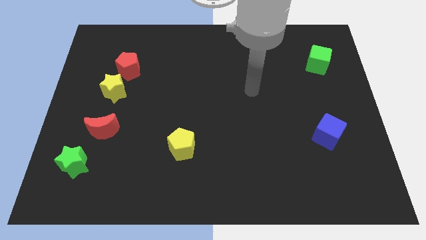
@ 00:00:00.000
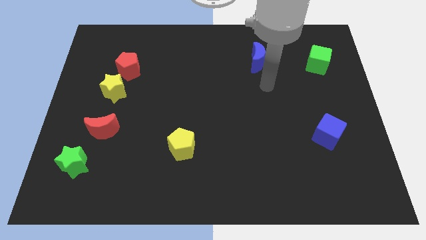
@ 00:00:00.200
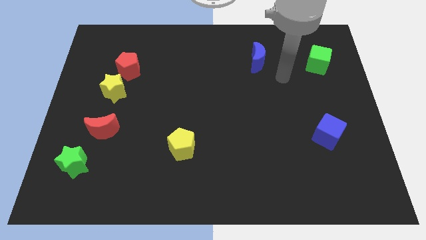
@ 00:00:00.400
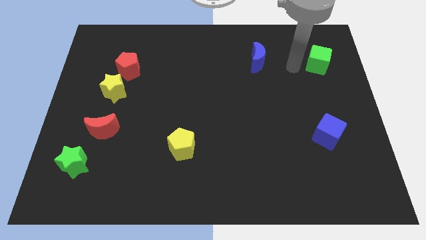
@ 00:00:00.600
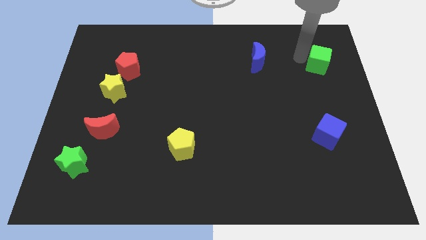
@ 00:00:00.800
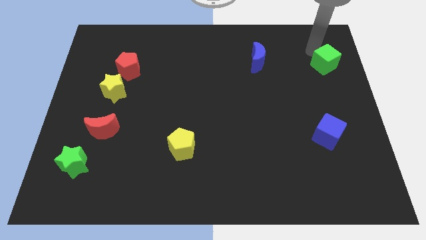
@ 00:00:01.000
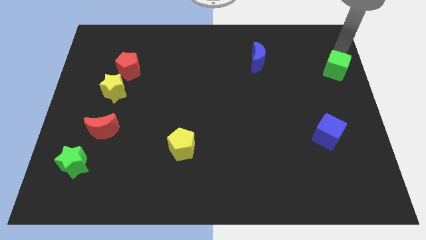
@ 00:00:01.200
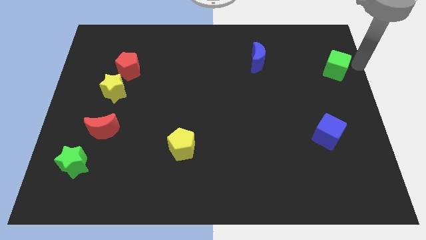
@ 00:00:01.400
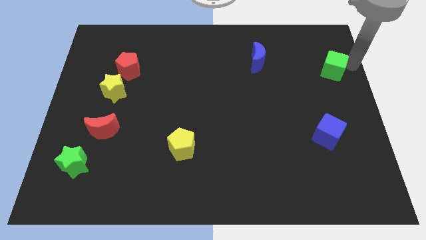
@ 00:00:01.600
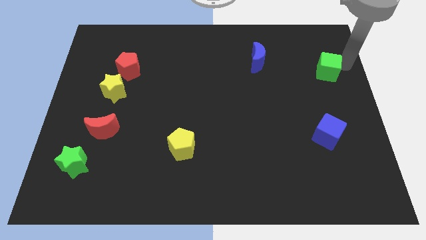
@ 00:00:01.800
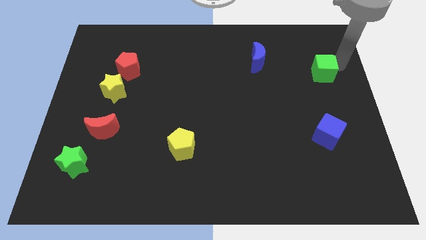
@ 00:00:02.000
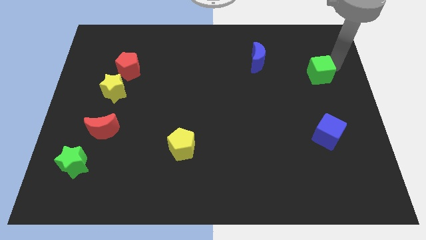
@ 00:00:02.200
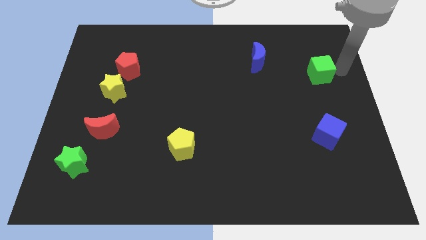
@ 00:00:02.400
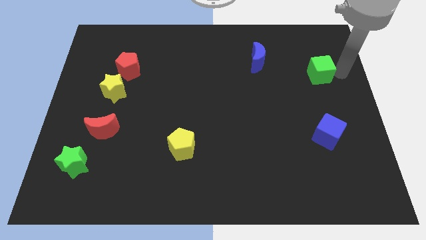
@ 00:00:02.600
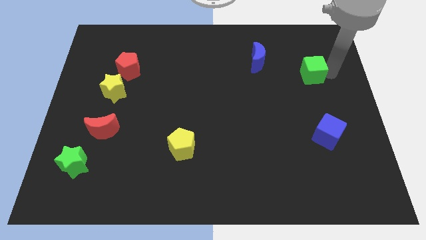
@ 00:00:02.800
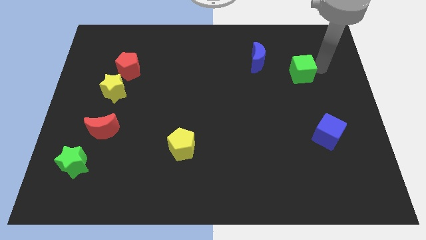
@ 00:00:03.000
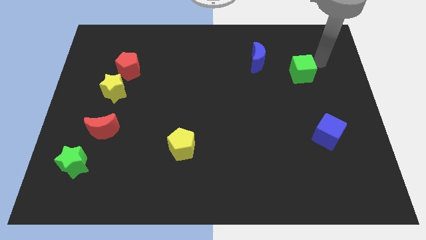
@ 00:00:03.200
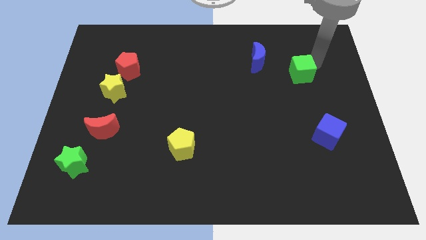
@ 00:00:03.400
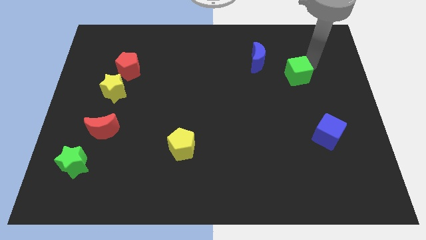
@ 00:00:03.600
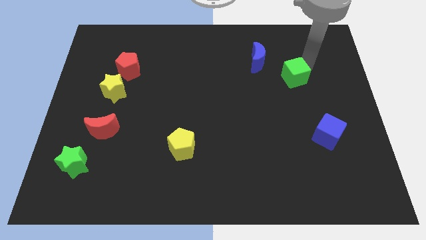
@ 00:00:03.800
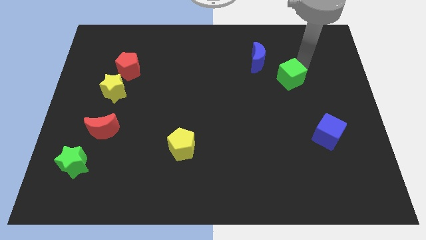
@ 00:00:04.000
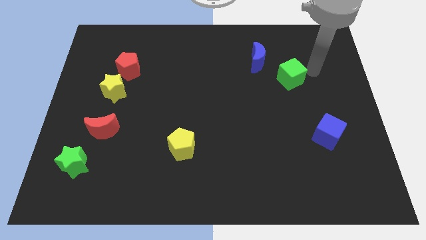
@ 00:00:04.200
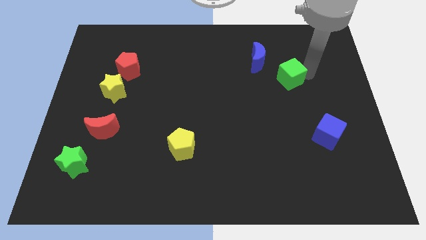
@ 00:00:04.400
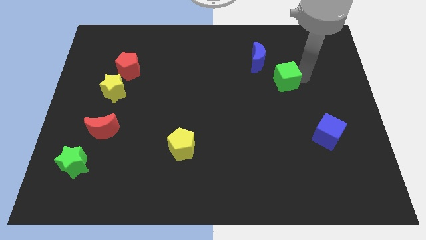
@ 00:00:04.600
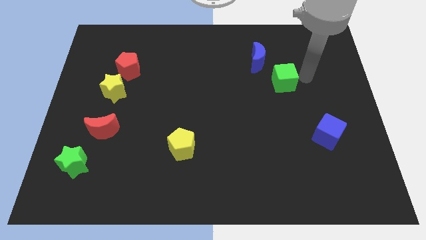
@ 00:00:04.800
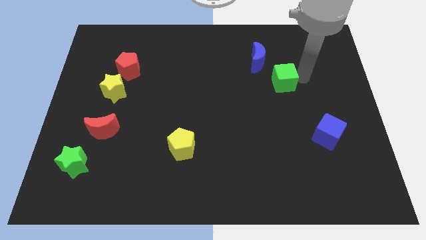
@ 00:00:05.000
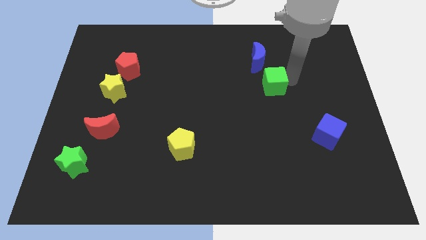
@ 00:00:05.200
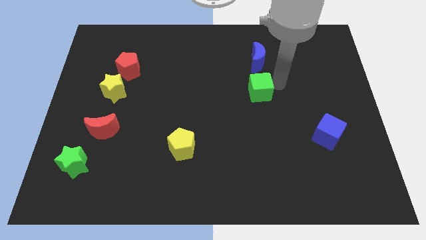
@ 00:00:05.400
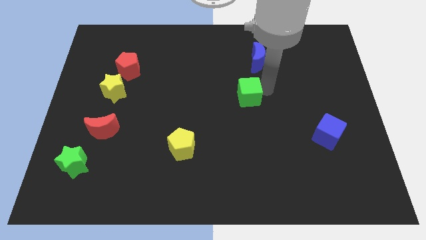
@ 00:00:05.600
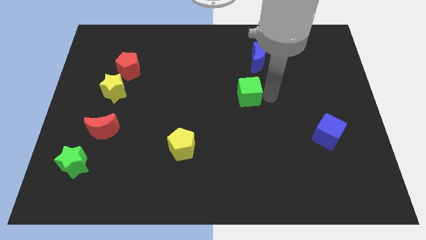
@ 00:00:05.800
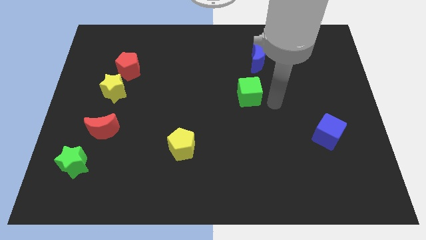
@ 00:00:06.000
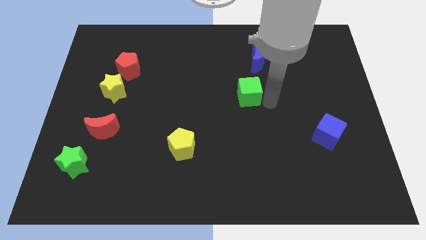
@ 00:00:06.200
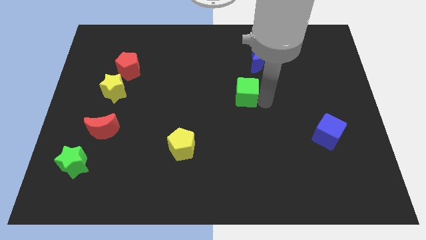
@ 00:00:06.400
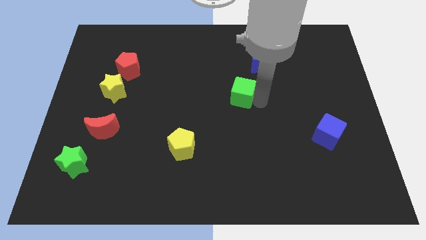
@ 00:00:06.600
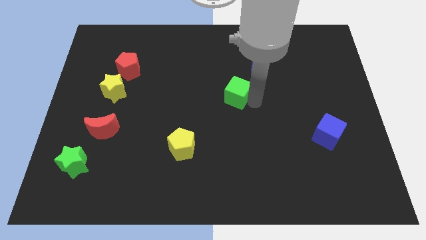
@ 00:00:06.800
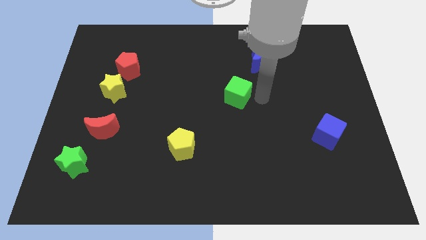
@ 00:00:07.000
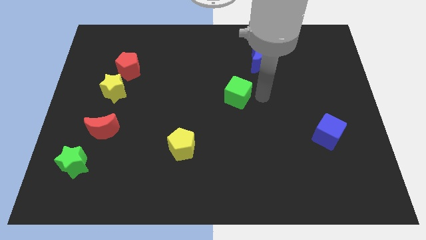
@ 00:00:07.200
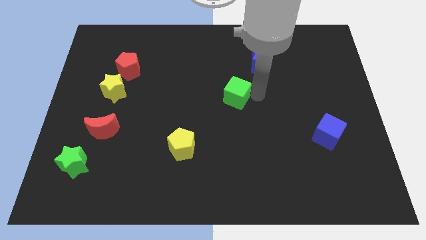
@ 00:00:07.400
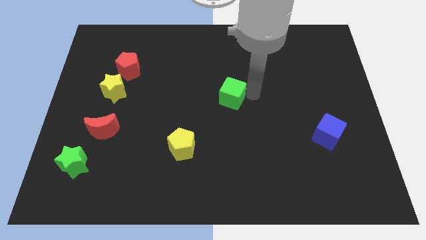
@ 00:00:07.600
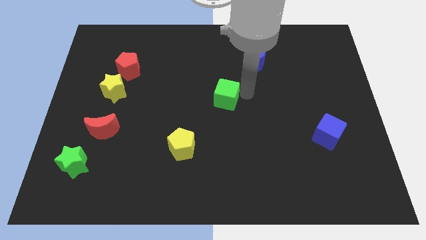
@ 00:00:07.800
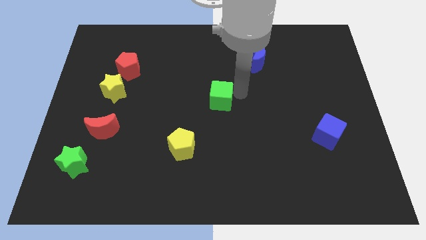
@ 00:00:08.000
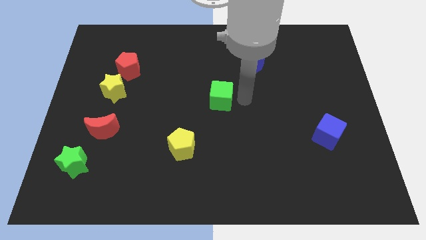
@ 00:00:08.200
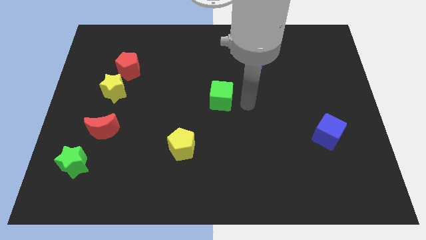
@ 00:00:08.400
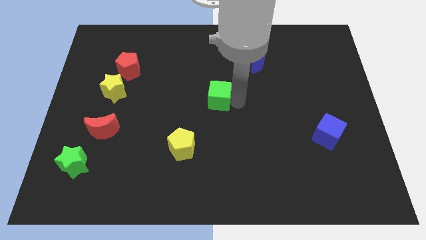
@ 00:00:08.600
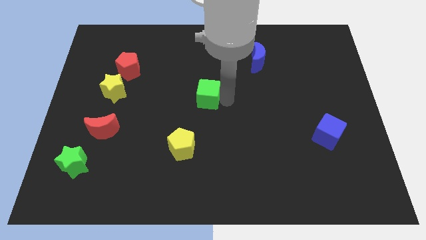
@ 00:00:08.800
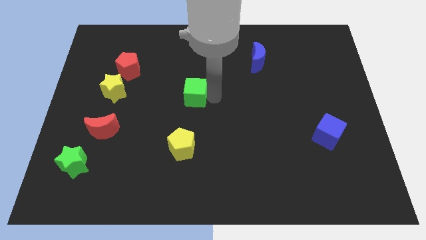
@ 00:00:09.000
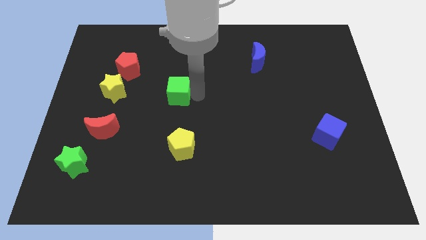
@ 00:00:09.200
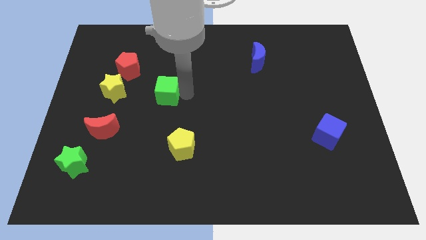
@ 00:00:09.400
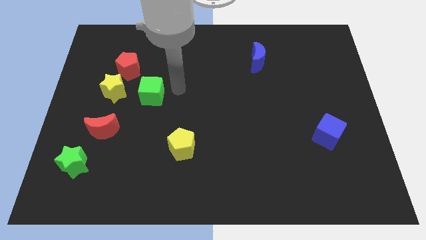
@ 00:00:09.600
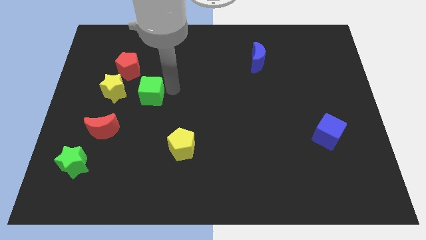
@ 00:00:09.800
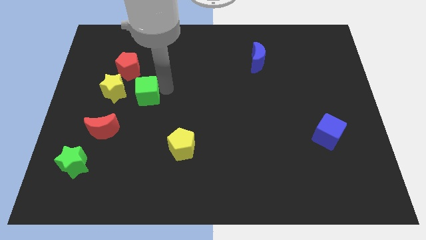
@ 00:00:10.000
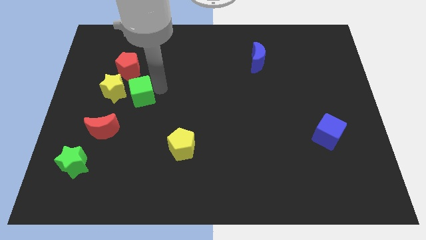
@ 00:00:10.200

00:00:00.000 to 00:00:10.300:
slide the green cube below the red pentagon

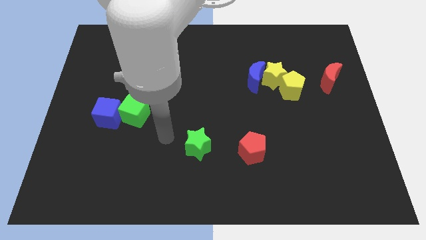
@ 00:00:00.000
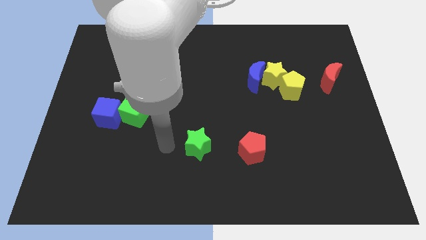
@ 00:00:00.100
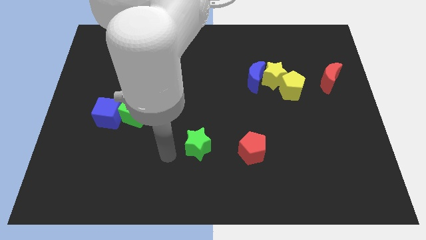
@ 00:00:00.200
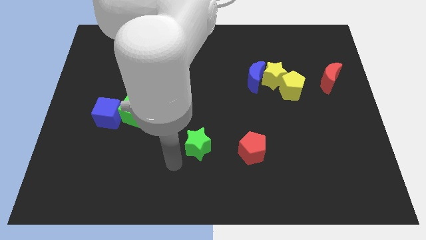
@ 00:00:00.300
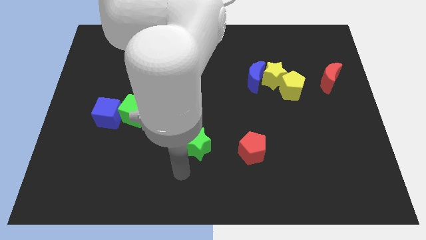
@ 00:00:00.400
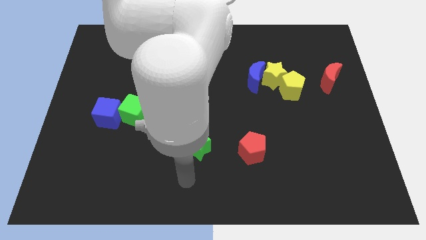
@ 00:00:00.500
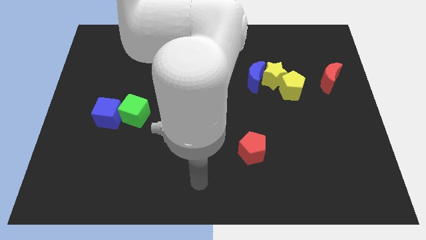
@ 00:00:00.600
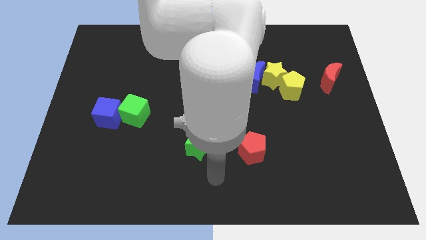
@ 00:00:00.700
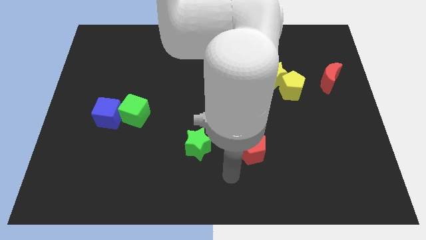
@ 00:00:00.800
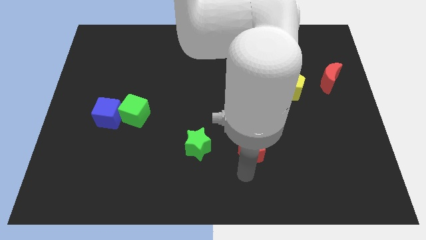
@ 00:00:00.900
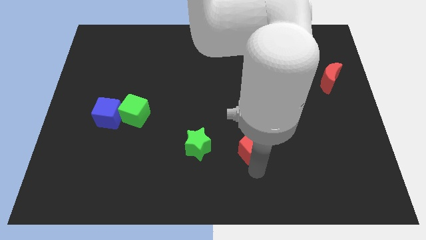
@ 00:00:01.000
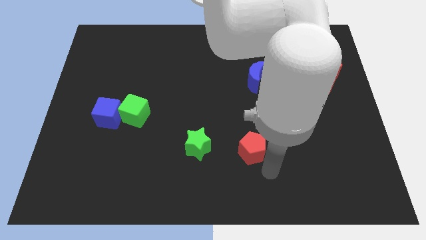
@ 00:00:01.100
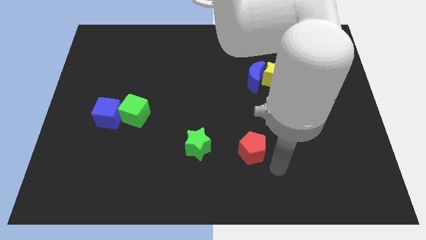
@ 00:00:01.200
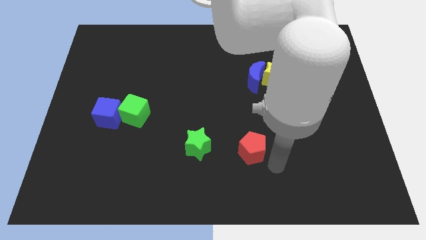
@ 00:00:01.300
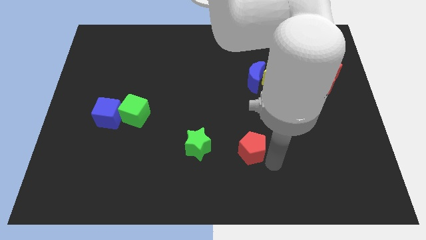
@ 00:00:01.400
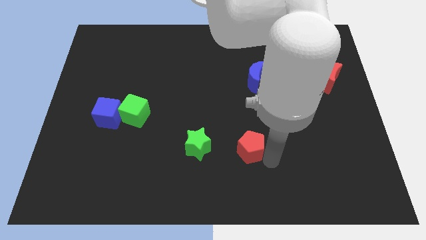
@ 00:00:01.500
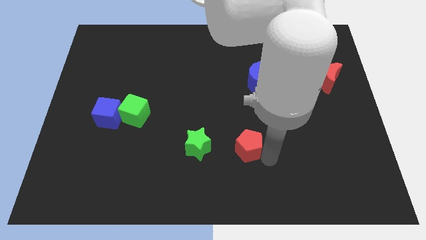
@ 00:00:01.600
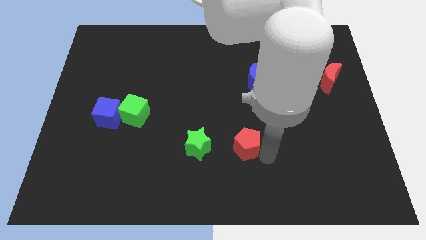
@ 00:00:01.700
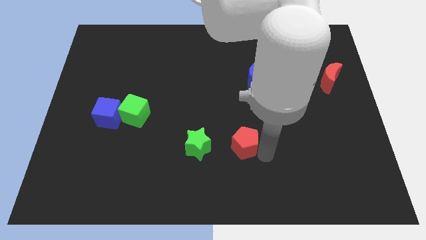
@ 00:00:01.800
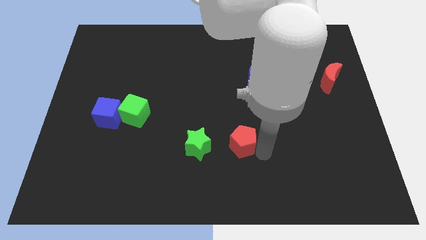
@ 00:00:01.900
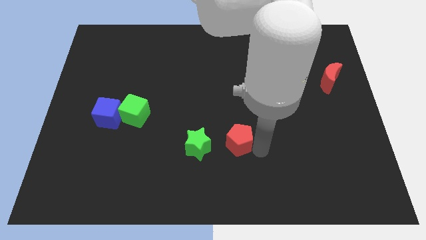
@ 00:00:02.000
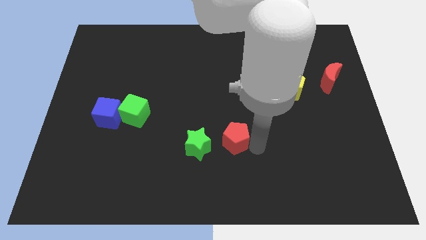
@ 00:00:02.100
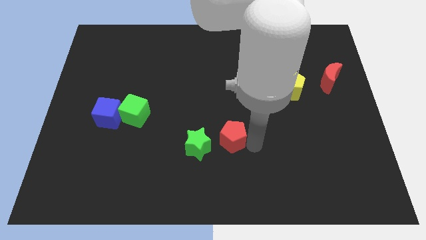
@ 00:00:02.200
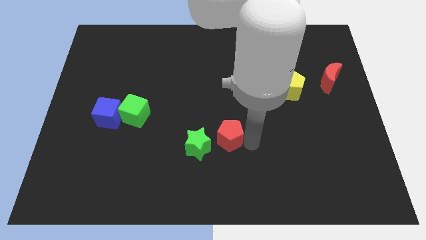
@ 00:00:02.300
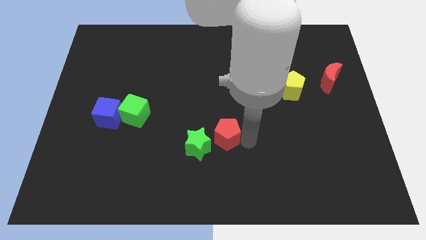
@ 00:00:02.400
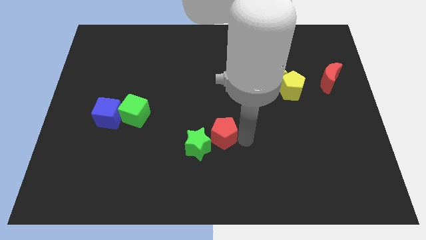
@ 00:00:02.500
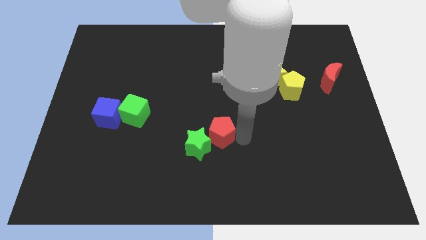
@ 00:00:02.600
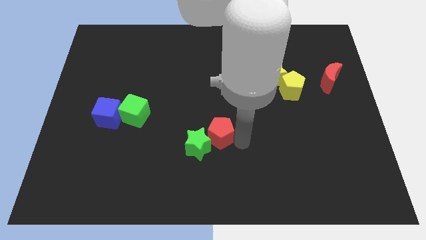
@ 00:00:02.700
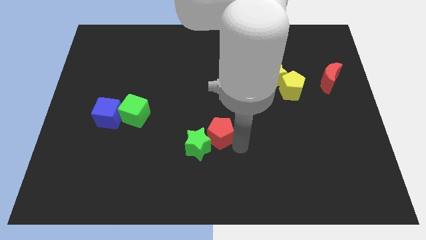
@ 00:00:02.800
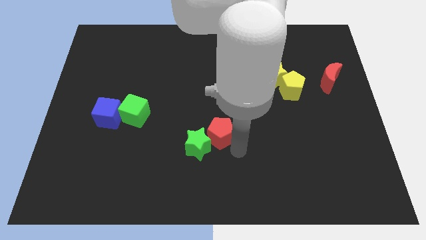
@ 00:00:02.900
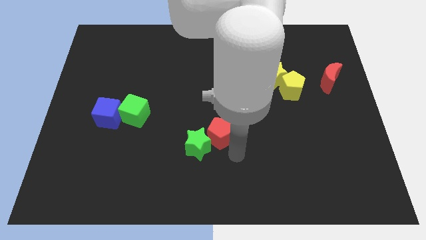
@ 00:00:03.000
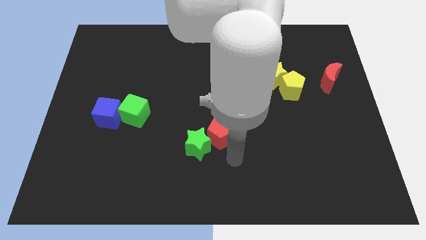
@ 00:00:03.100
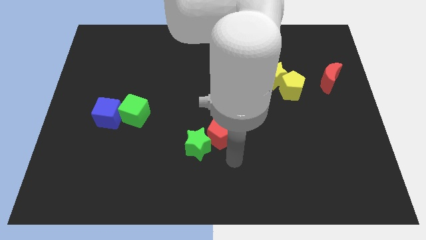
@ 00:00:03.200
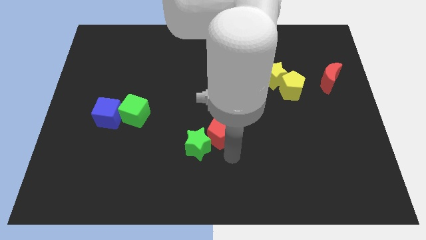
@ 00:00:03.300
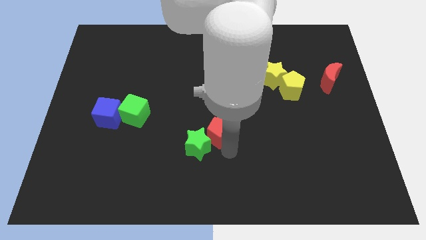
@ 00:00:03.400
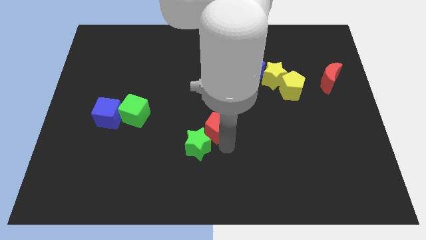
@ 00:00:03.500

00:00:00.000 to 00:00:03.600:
slide the red pentagon above the green star
